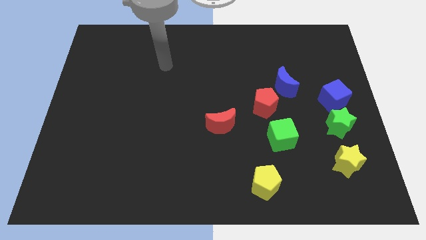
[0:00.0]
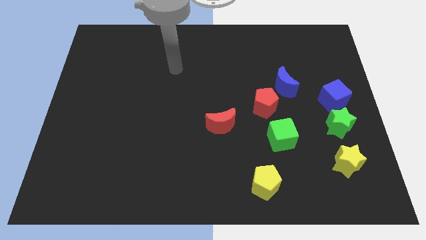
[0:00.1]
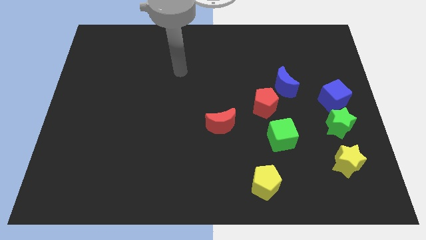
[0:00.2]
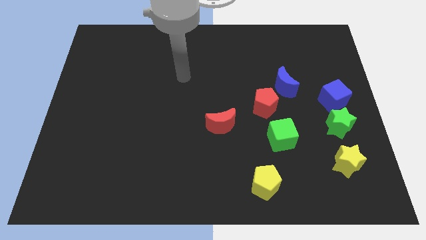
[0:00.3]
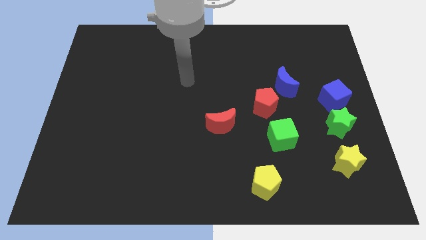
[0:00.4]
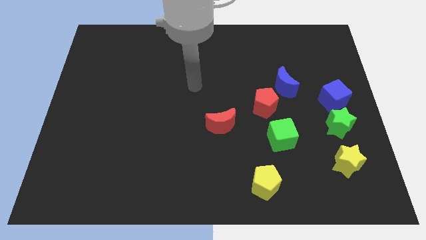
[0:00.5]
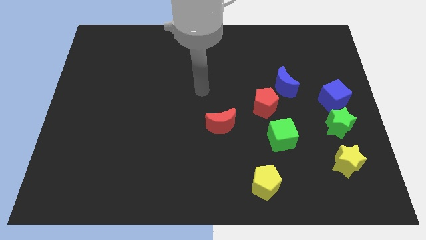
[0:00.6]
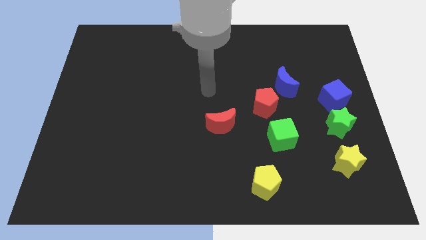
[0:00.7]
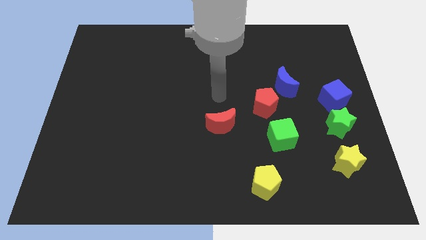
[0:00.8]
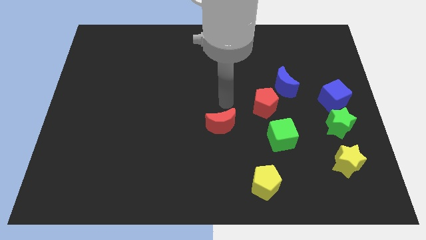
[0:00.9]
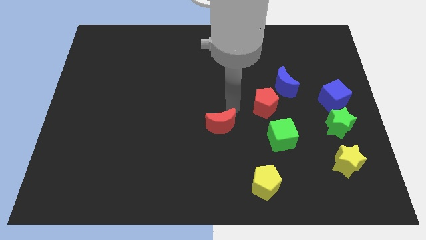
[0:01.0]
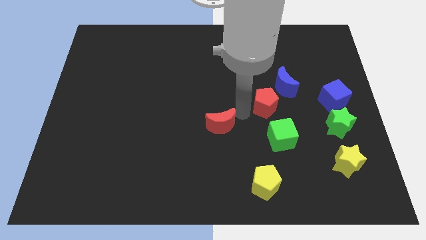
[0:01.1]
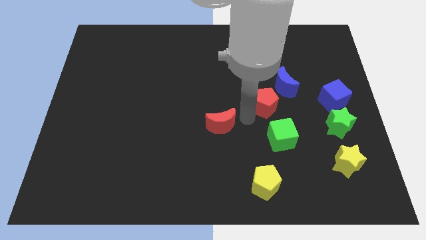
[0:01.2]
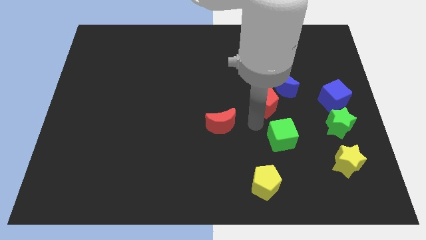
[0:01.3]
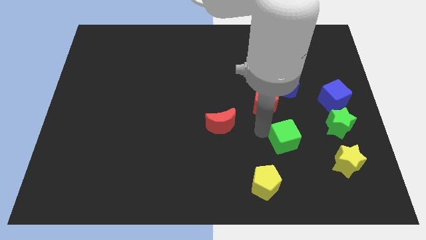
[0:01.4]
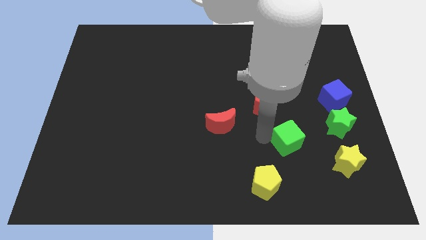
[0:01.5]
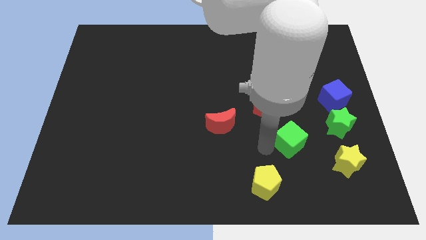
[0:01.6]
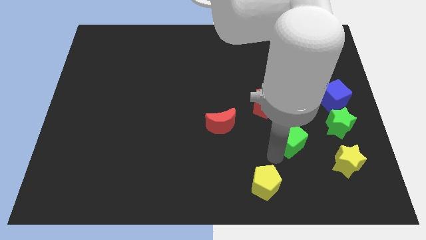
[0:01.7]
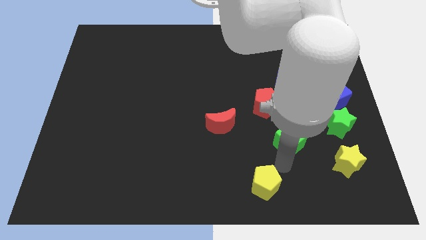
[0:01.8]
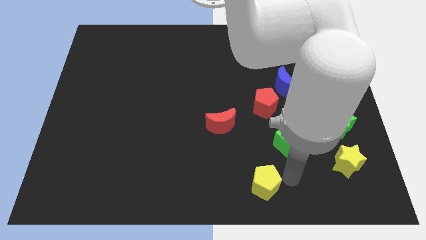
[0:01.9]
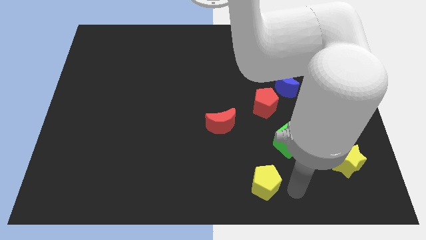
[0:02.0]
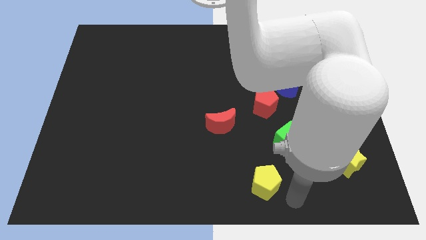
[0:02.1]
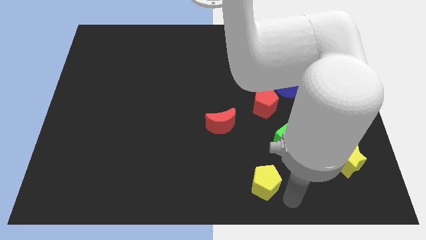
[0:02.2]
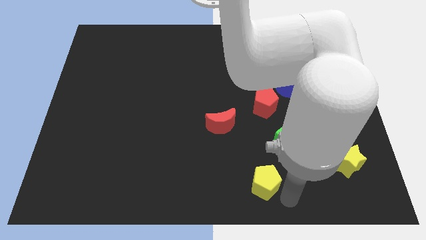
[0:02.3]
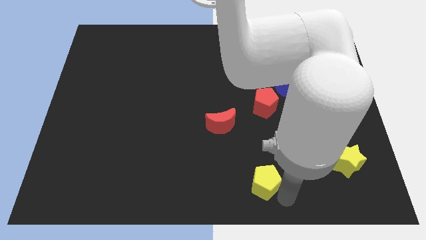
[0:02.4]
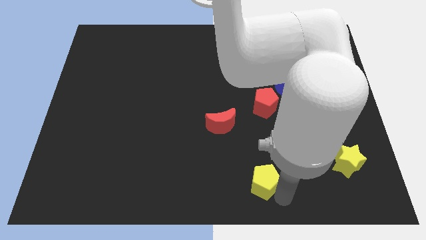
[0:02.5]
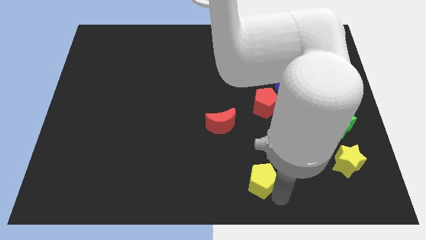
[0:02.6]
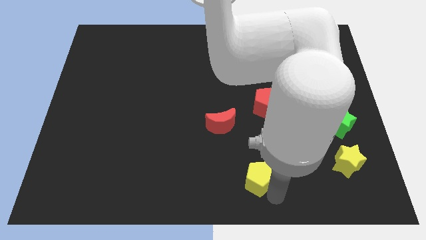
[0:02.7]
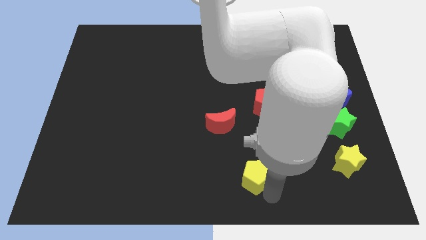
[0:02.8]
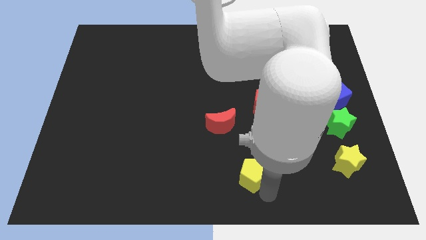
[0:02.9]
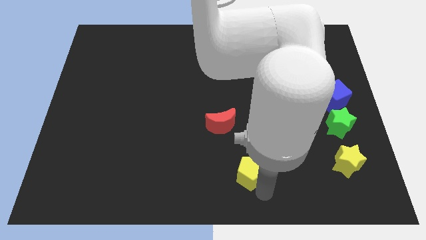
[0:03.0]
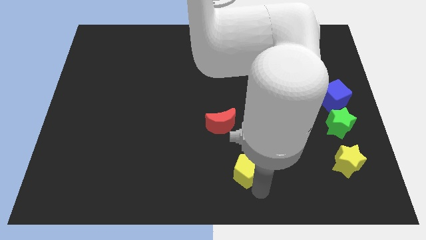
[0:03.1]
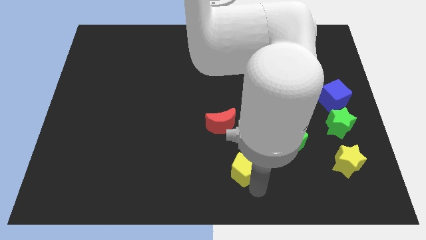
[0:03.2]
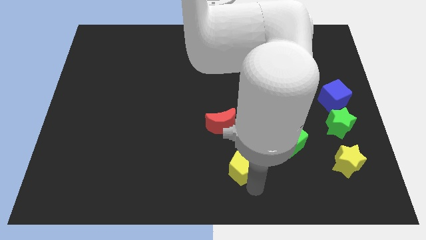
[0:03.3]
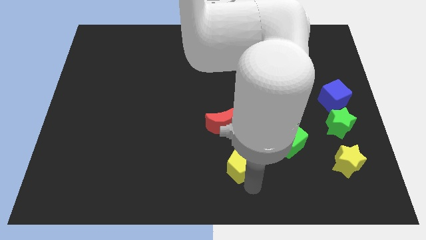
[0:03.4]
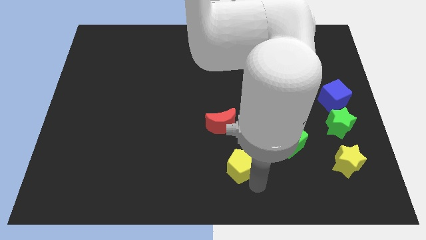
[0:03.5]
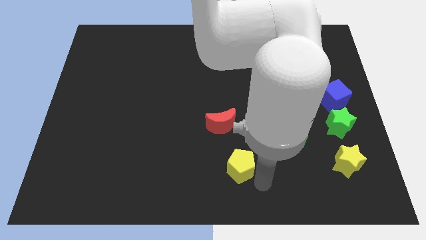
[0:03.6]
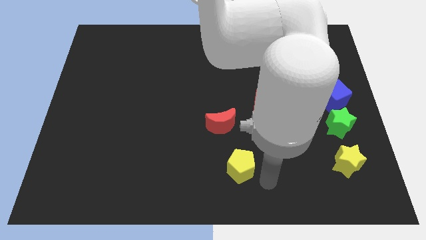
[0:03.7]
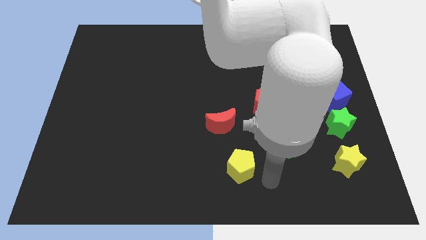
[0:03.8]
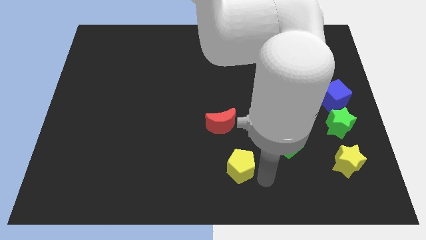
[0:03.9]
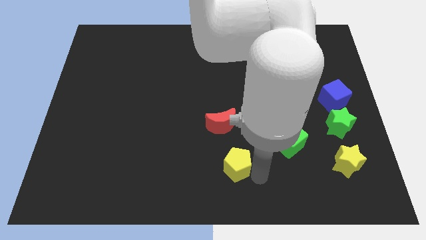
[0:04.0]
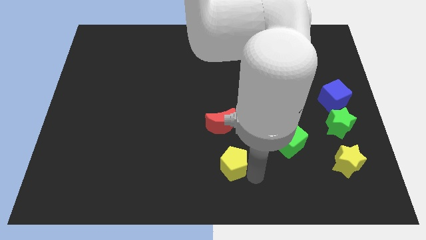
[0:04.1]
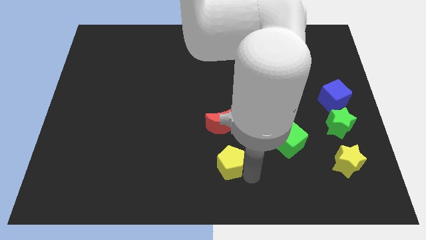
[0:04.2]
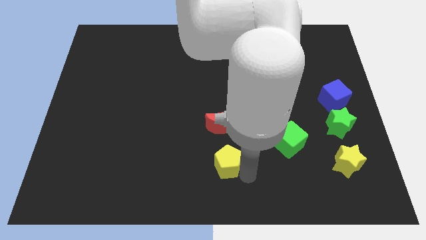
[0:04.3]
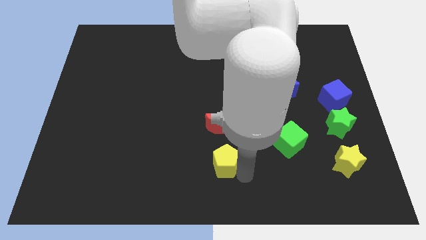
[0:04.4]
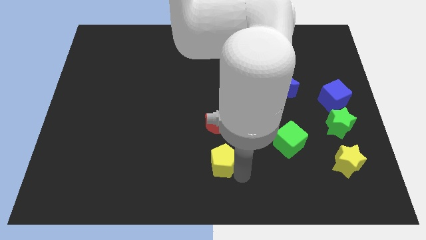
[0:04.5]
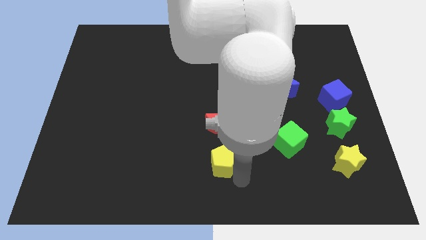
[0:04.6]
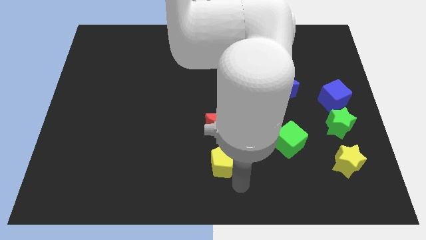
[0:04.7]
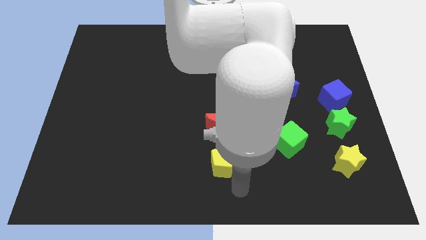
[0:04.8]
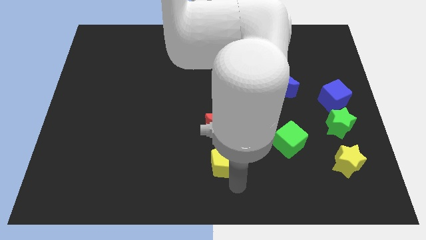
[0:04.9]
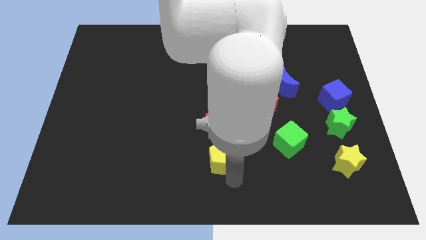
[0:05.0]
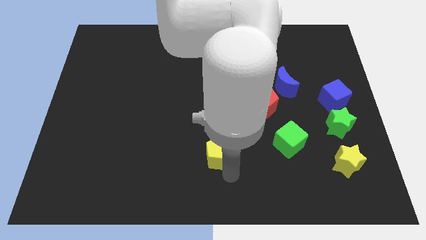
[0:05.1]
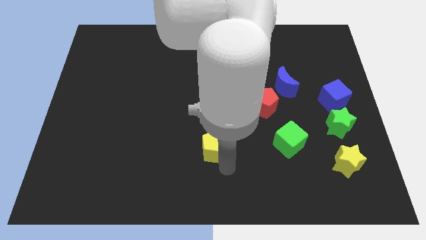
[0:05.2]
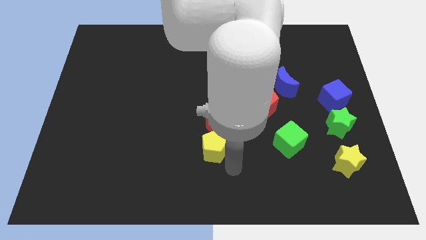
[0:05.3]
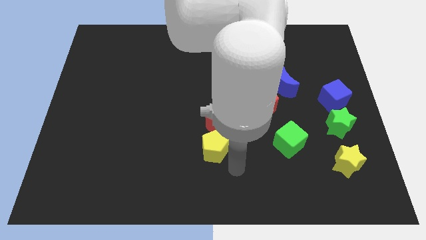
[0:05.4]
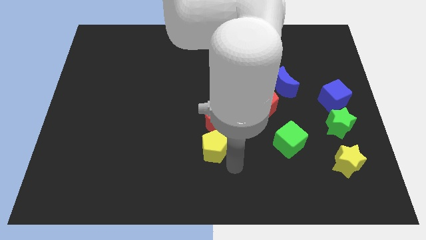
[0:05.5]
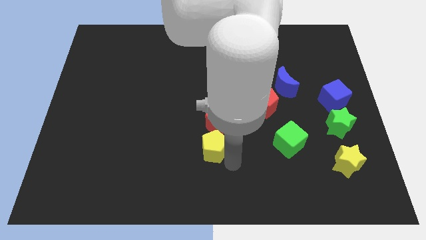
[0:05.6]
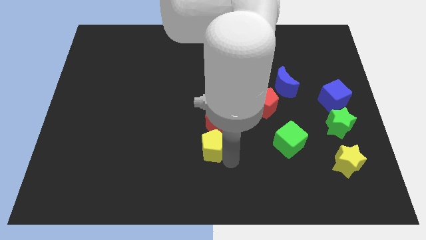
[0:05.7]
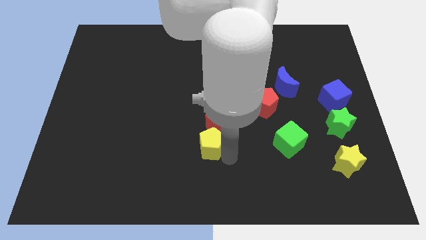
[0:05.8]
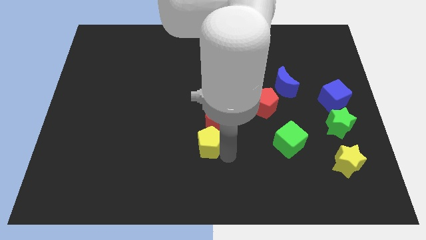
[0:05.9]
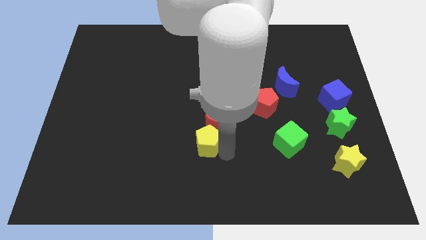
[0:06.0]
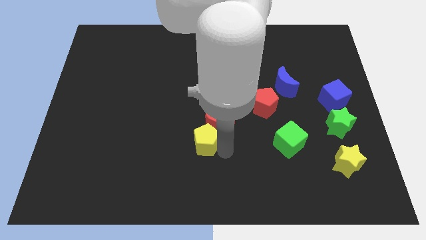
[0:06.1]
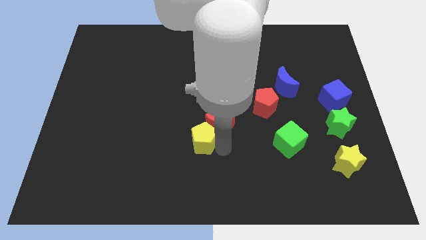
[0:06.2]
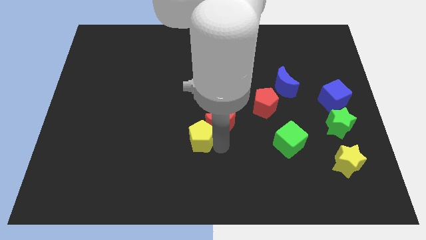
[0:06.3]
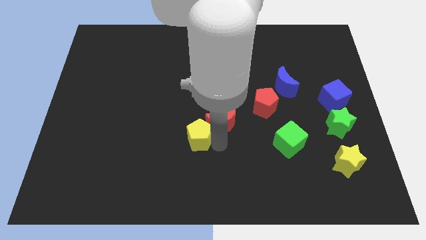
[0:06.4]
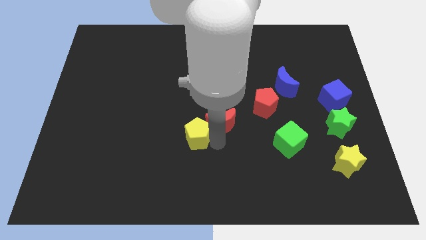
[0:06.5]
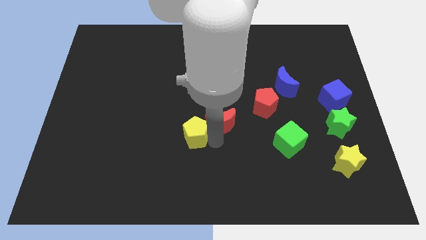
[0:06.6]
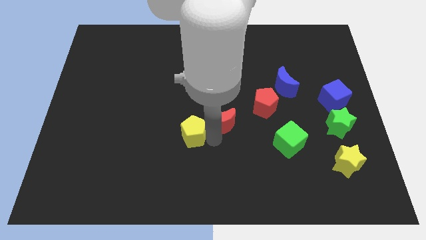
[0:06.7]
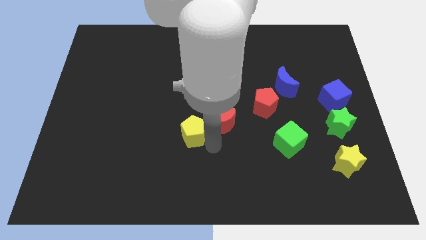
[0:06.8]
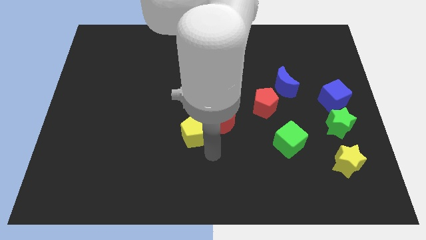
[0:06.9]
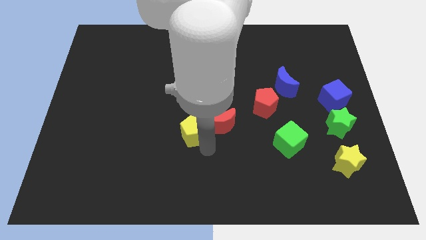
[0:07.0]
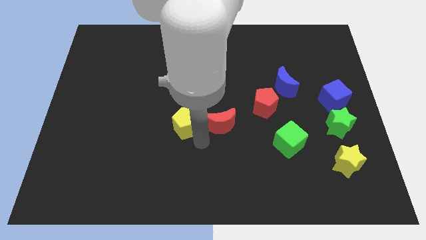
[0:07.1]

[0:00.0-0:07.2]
slide the yellow pentagon up and then to the left

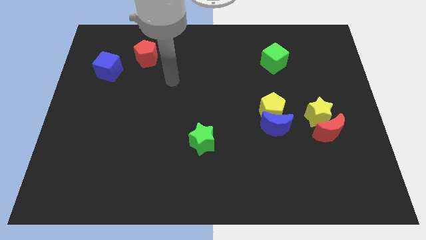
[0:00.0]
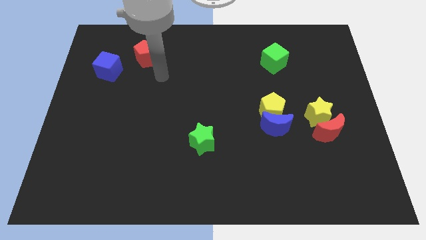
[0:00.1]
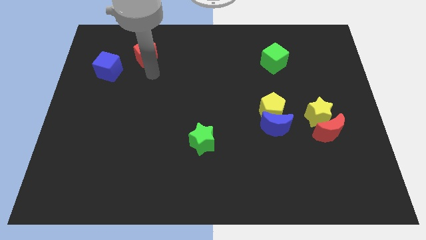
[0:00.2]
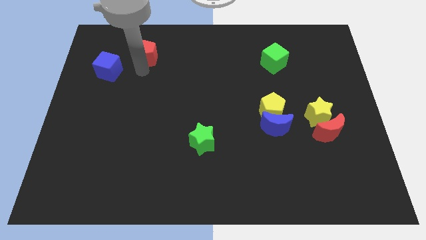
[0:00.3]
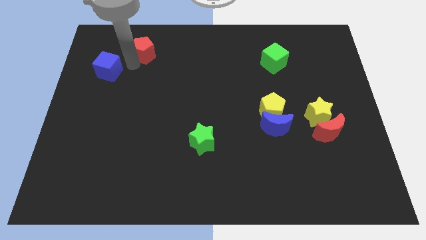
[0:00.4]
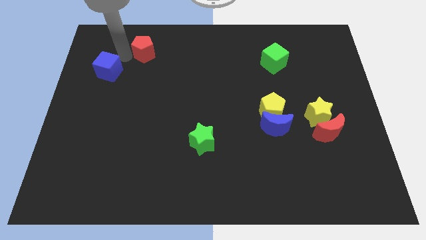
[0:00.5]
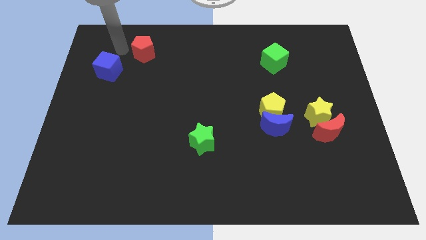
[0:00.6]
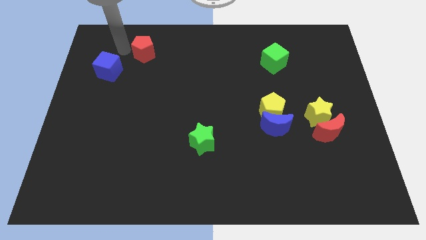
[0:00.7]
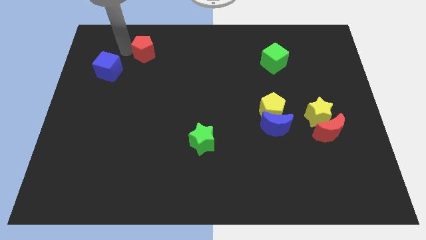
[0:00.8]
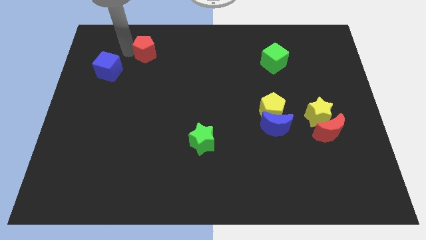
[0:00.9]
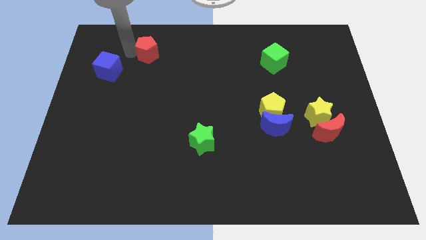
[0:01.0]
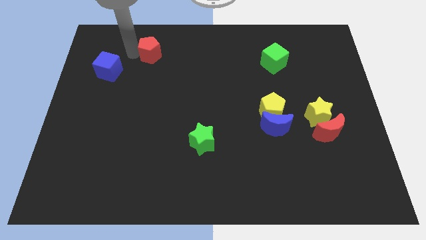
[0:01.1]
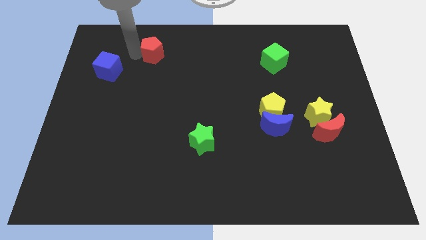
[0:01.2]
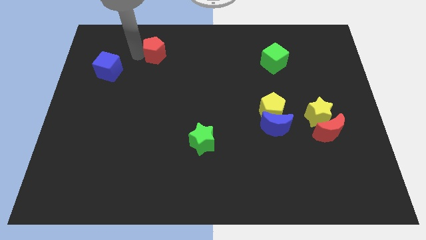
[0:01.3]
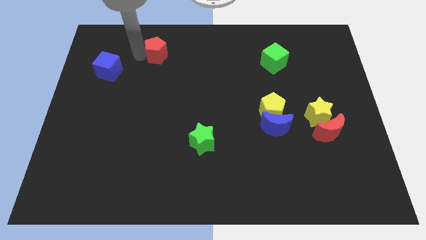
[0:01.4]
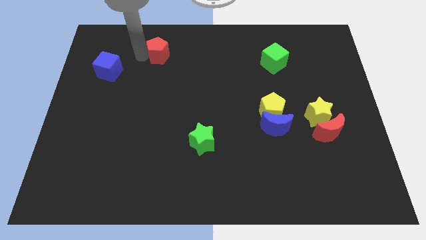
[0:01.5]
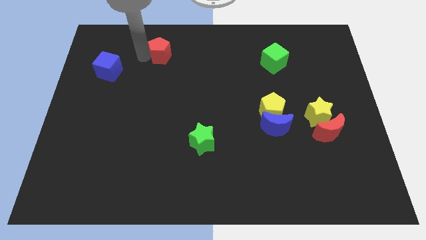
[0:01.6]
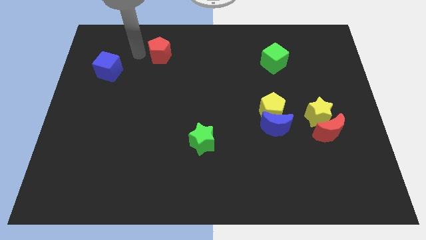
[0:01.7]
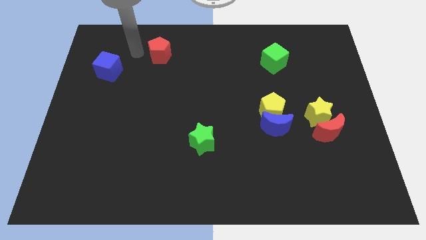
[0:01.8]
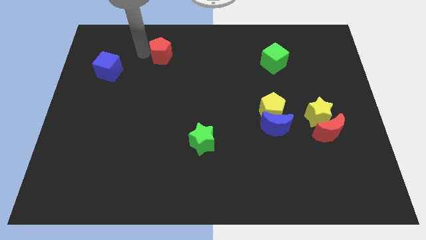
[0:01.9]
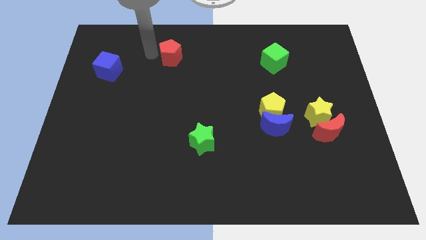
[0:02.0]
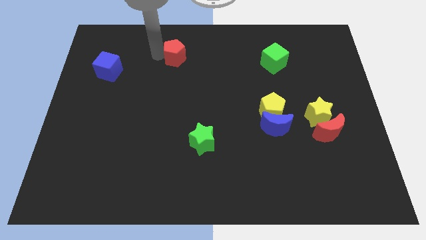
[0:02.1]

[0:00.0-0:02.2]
move the red pentagon somewhat to the right
